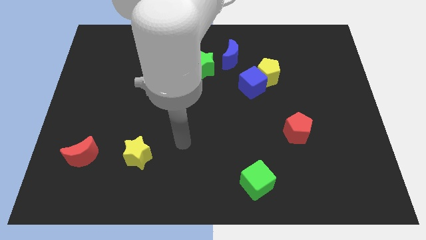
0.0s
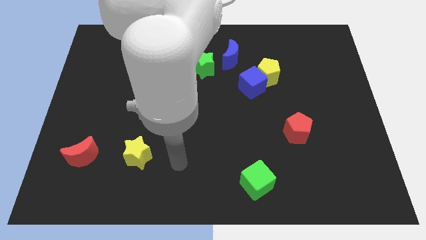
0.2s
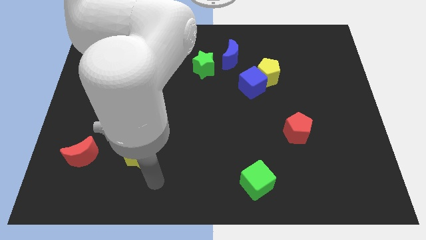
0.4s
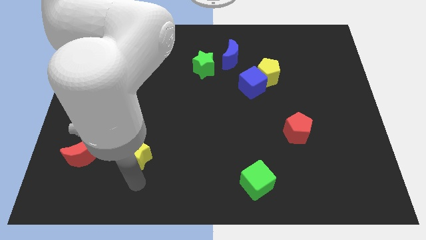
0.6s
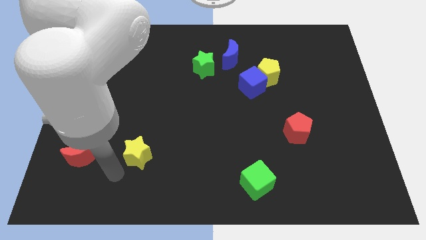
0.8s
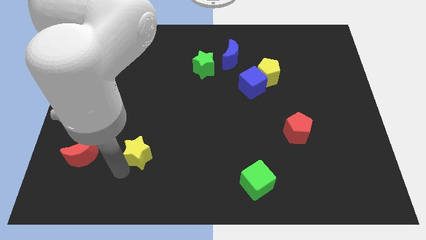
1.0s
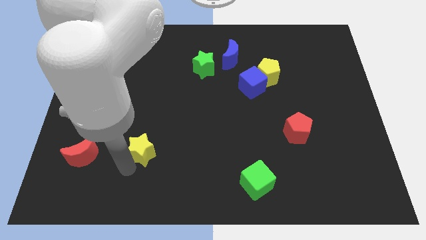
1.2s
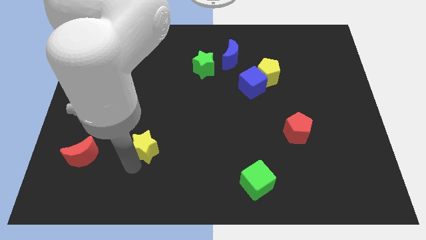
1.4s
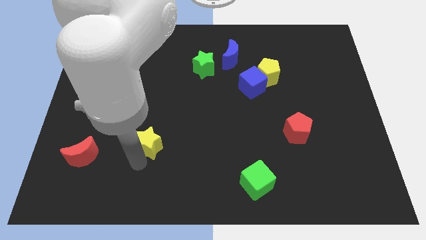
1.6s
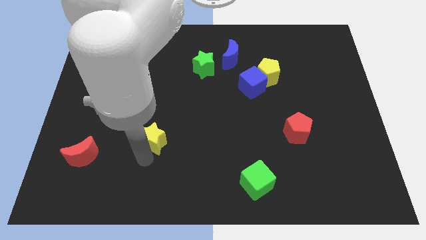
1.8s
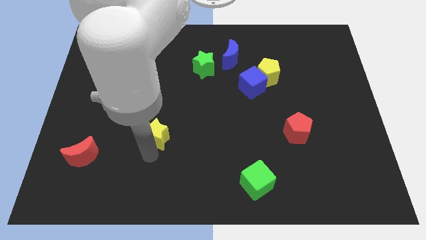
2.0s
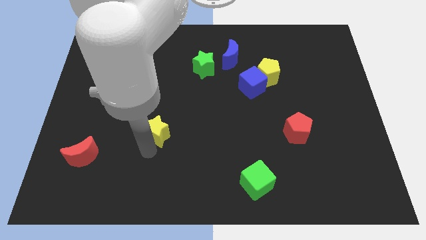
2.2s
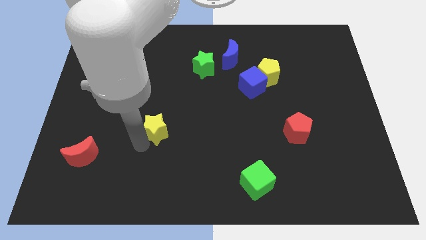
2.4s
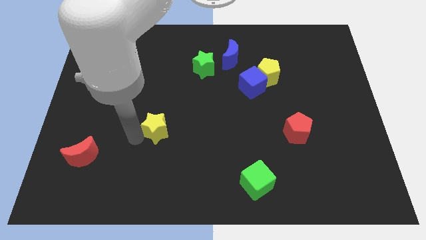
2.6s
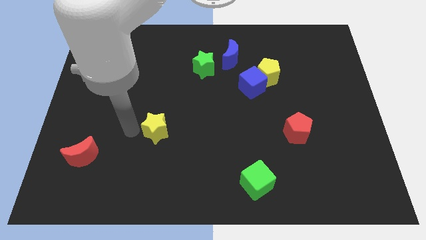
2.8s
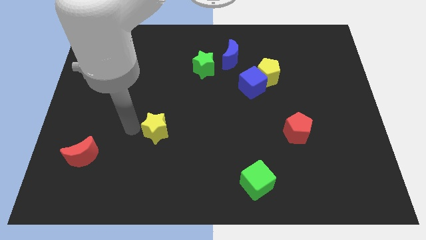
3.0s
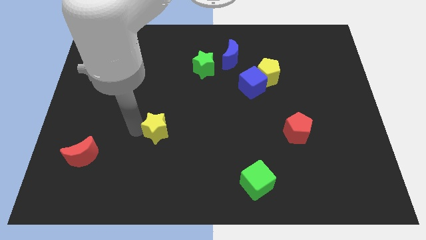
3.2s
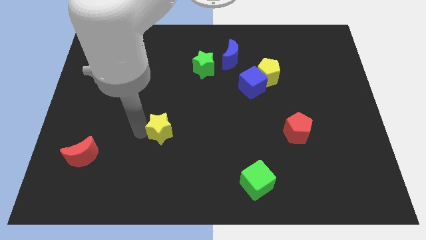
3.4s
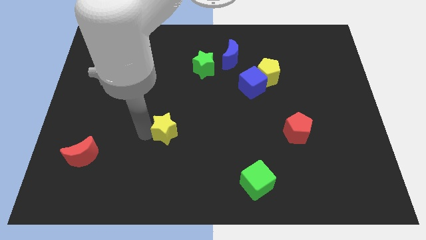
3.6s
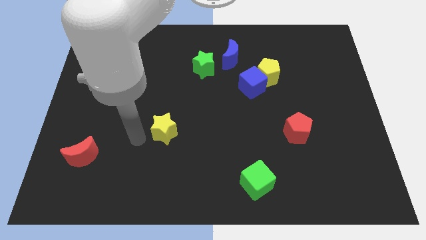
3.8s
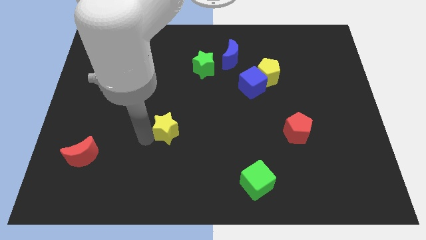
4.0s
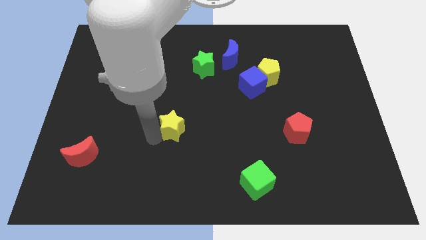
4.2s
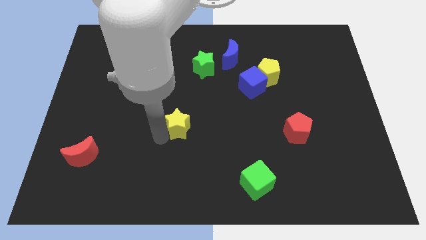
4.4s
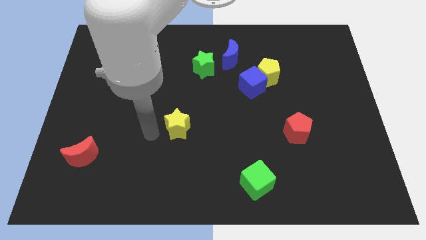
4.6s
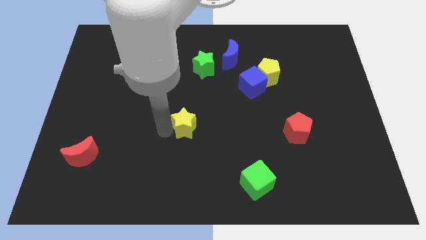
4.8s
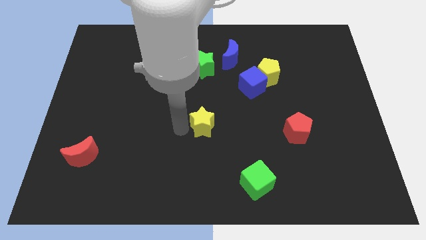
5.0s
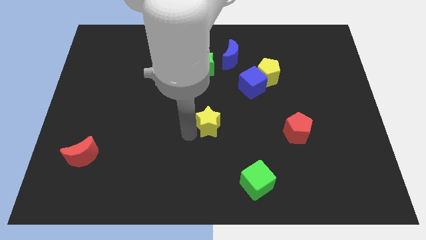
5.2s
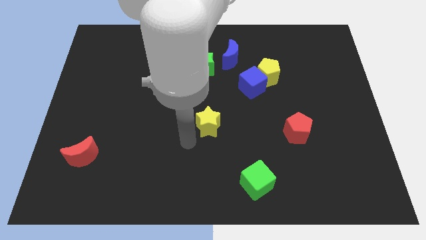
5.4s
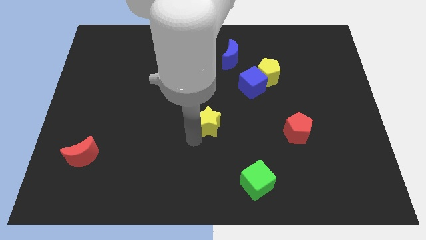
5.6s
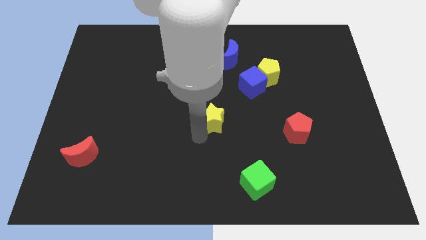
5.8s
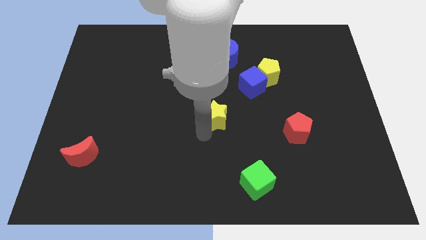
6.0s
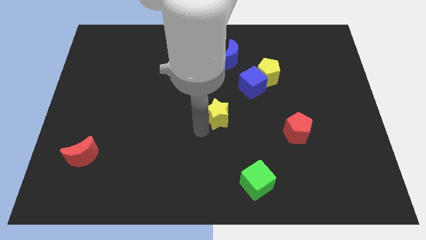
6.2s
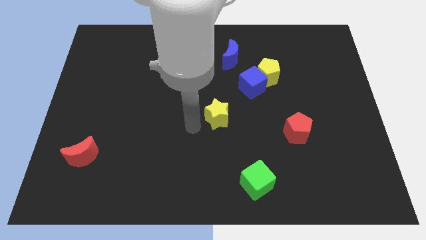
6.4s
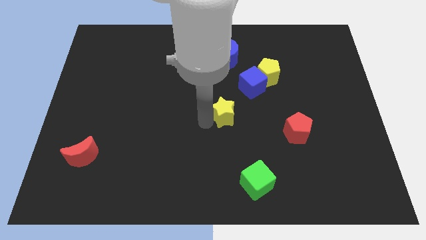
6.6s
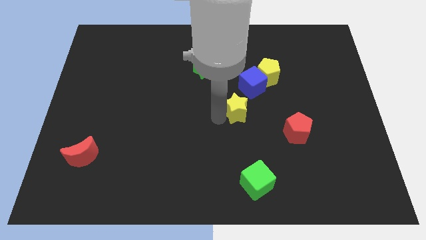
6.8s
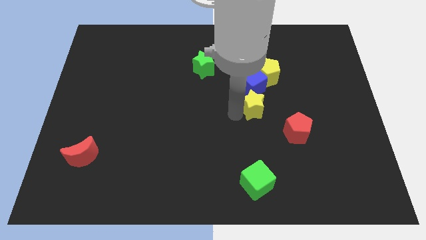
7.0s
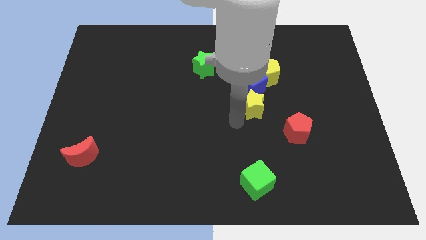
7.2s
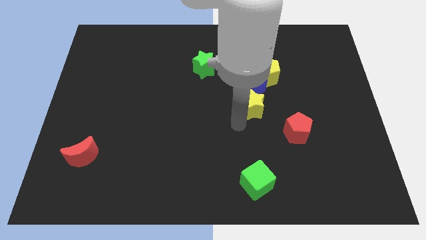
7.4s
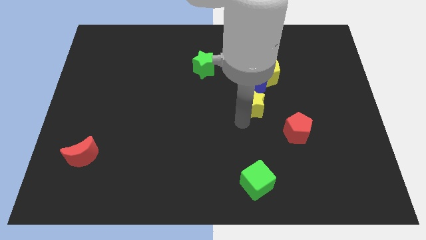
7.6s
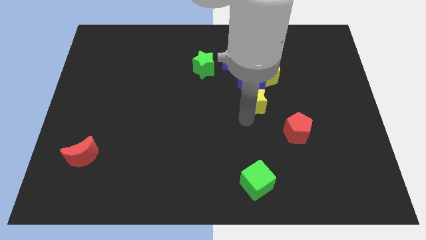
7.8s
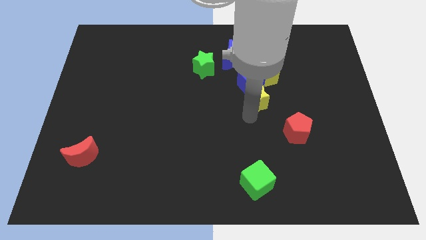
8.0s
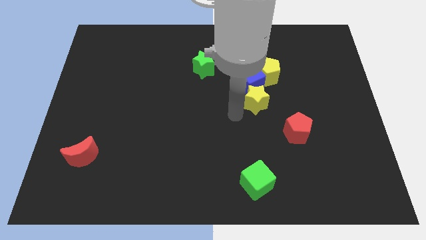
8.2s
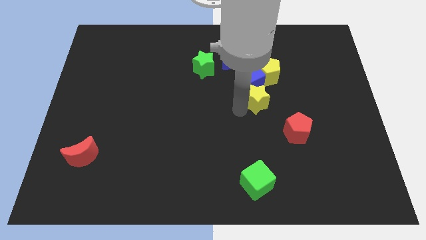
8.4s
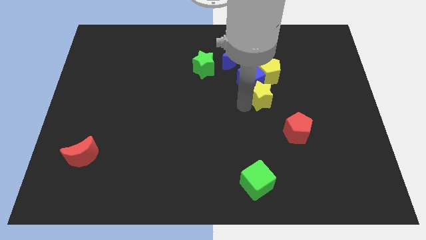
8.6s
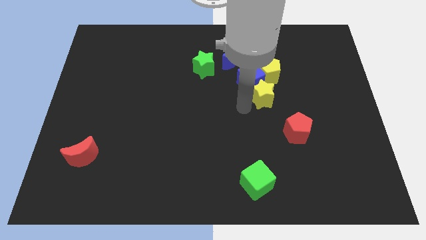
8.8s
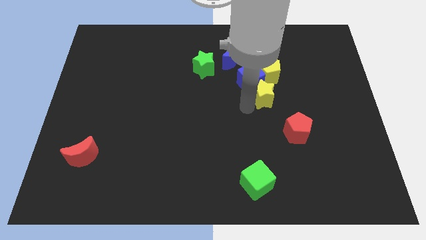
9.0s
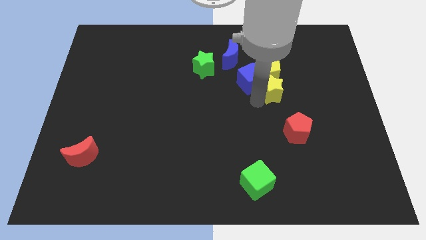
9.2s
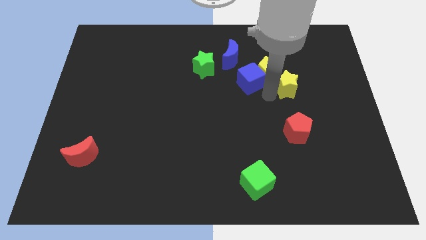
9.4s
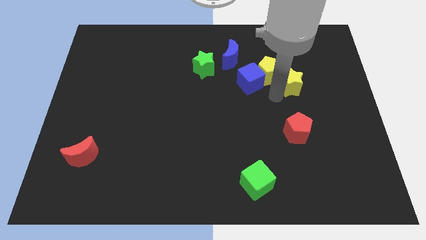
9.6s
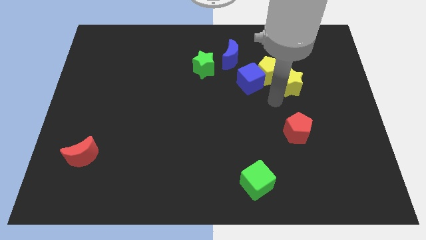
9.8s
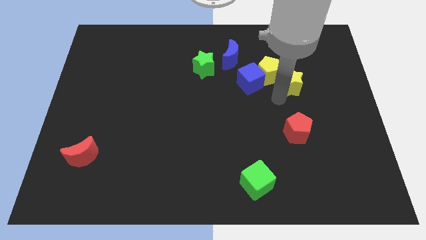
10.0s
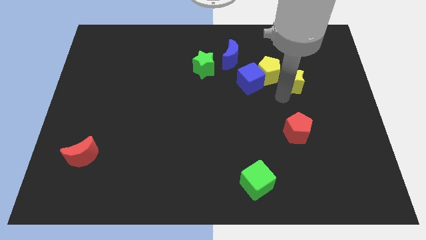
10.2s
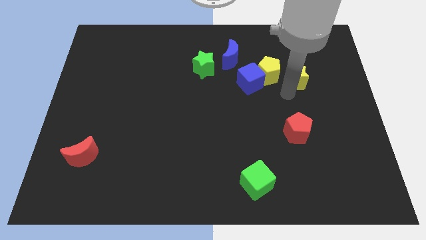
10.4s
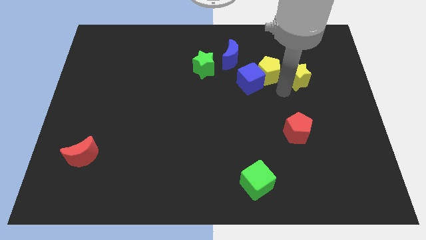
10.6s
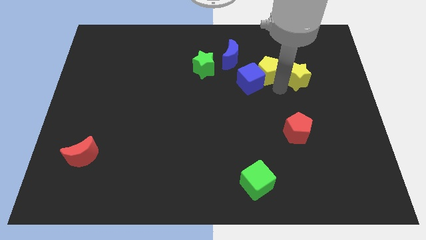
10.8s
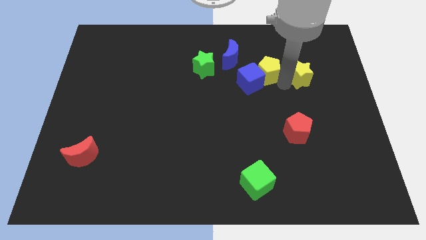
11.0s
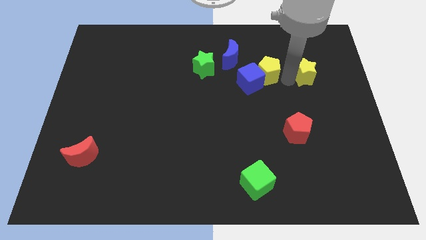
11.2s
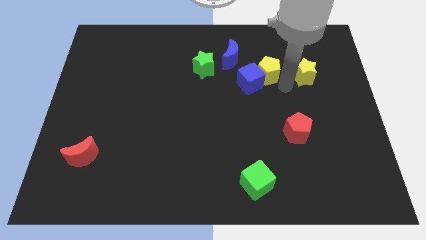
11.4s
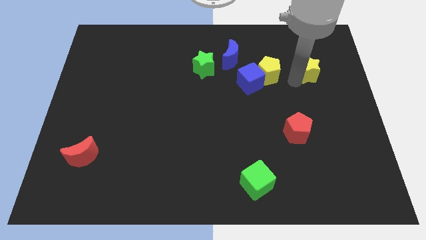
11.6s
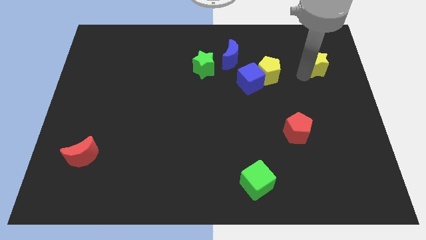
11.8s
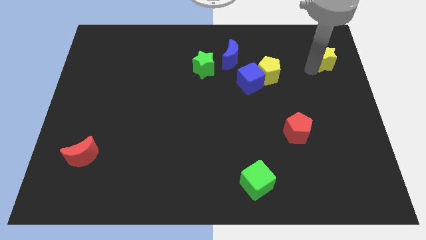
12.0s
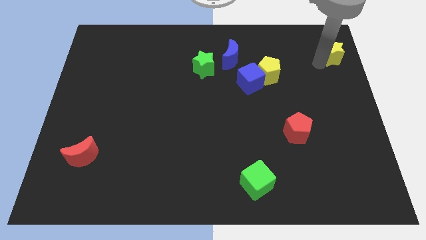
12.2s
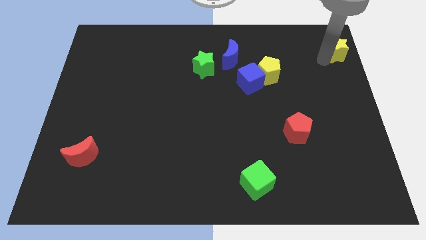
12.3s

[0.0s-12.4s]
slide the yellow star to the upper right corner

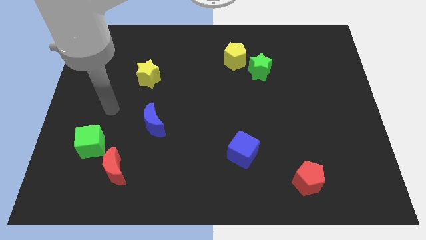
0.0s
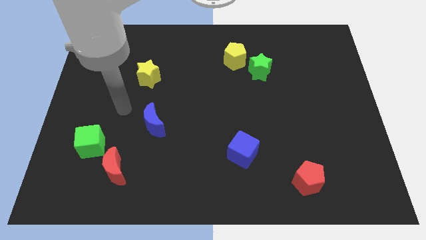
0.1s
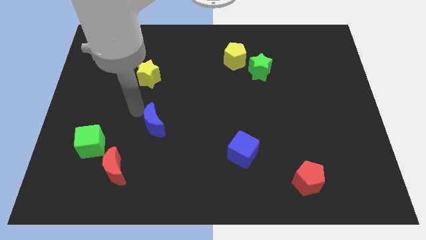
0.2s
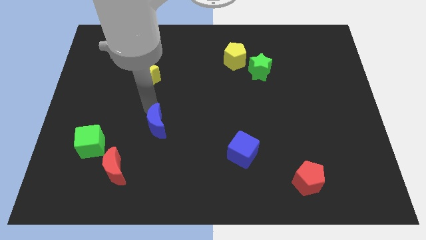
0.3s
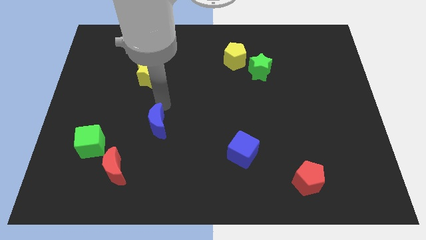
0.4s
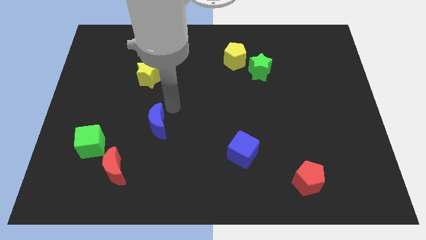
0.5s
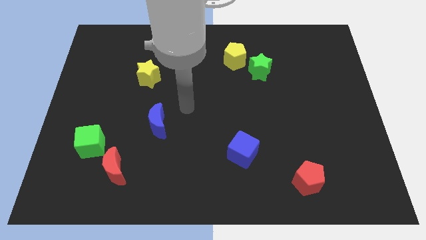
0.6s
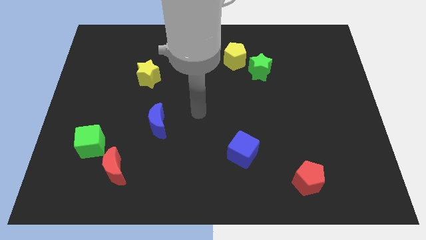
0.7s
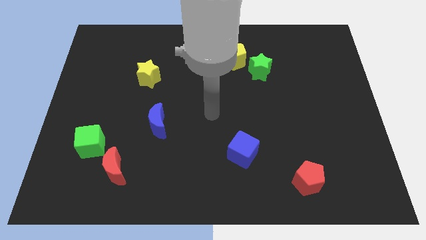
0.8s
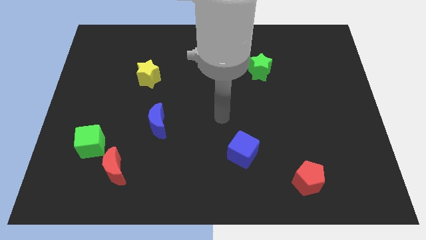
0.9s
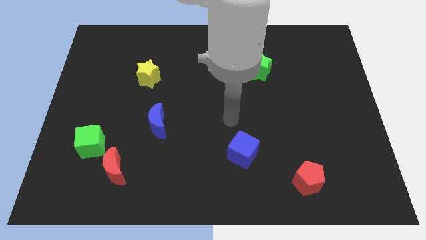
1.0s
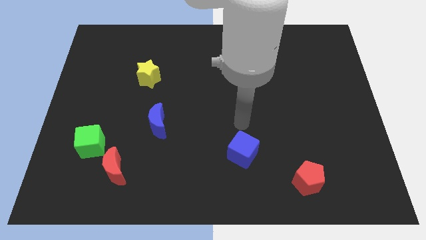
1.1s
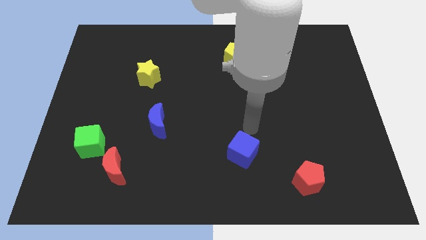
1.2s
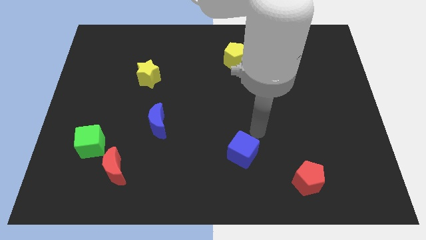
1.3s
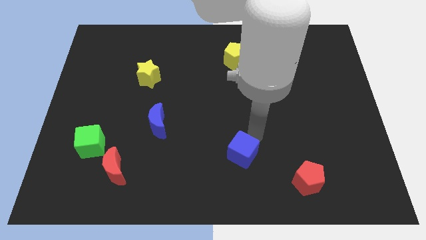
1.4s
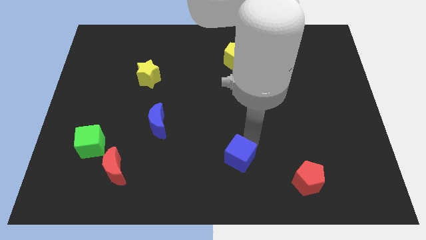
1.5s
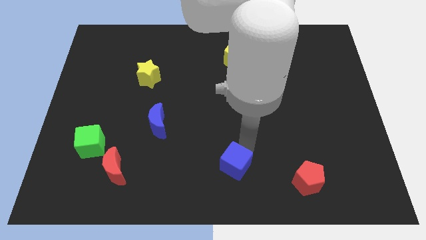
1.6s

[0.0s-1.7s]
move the blue cube to the bottom
